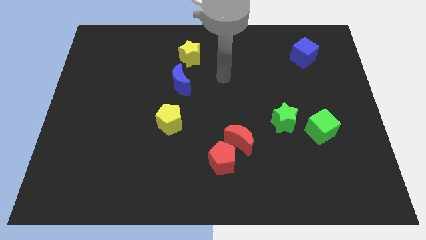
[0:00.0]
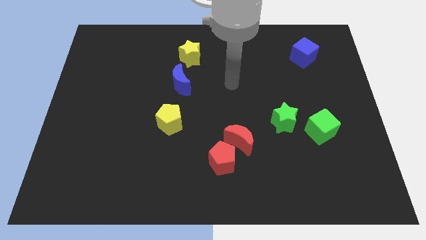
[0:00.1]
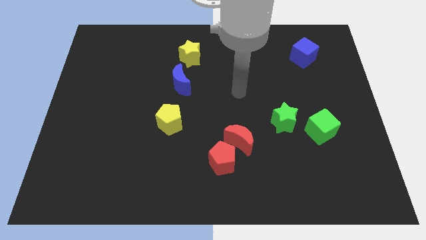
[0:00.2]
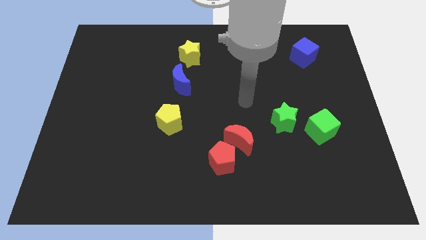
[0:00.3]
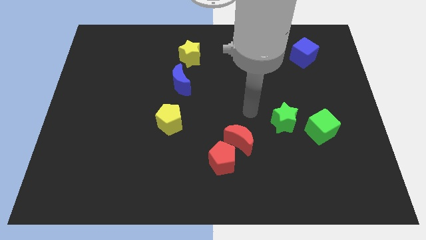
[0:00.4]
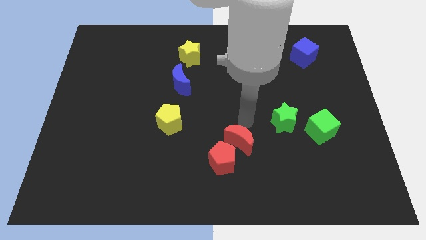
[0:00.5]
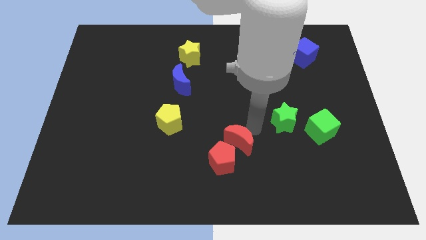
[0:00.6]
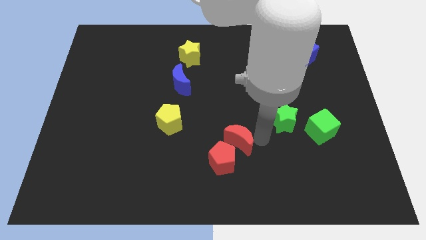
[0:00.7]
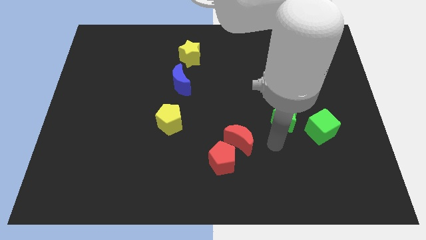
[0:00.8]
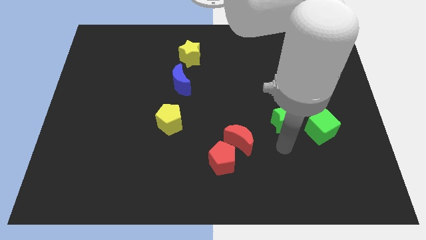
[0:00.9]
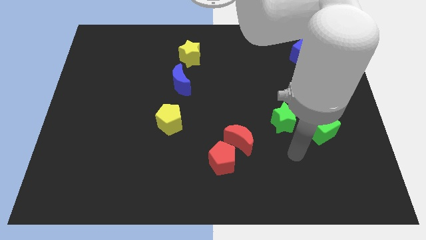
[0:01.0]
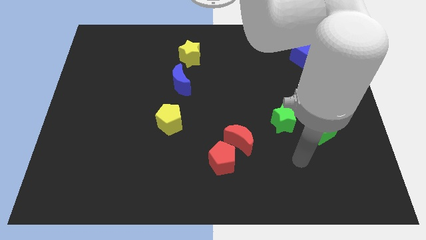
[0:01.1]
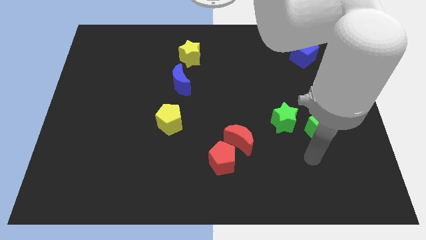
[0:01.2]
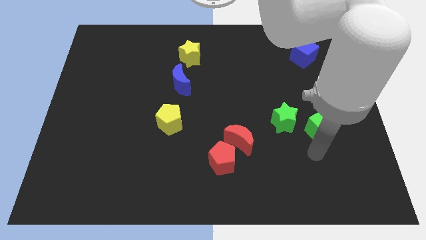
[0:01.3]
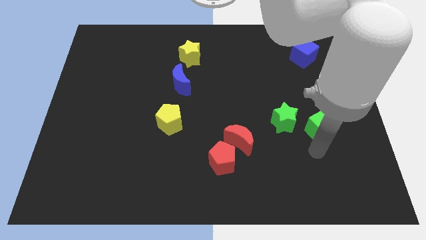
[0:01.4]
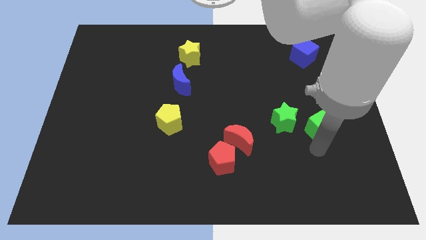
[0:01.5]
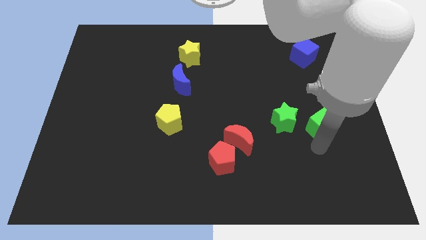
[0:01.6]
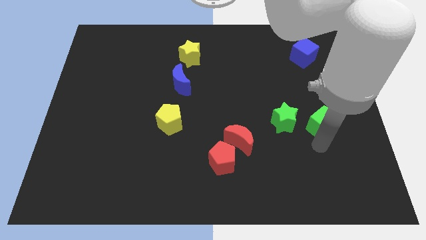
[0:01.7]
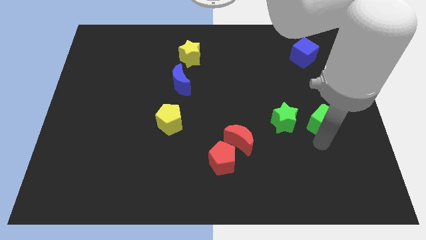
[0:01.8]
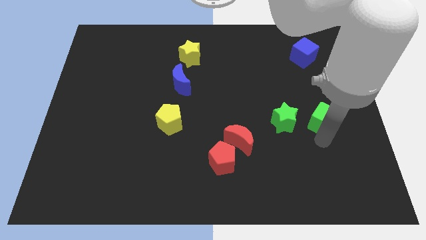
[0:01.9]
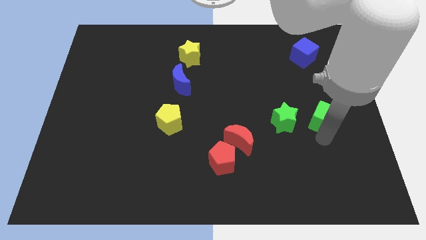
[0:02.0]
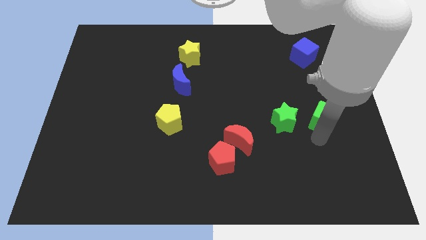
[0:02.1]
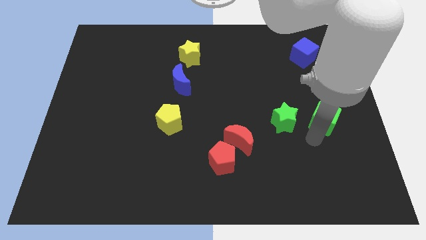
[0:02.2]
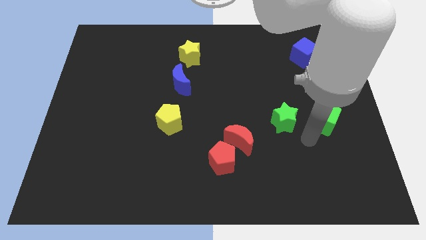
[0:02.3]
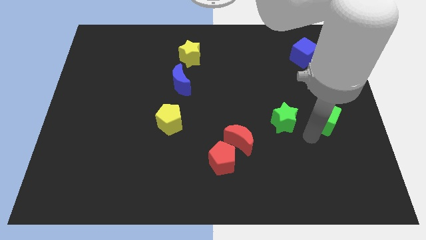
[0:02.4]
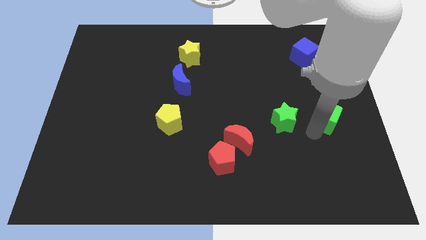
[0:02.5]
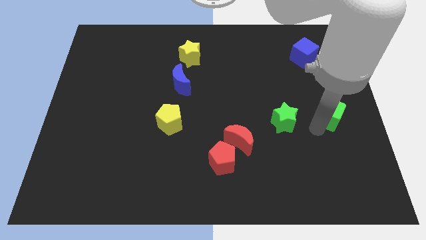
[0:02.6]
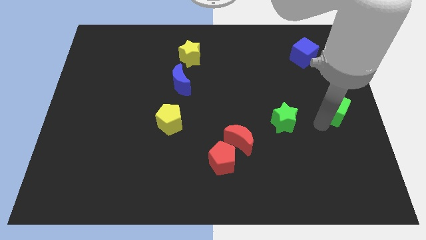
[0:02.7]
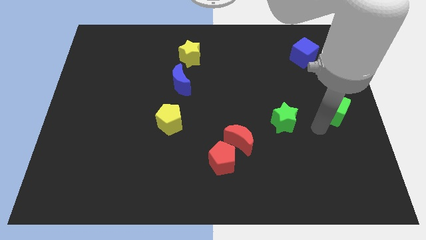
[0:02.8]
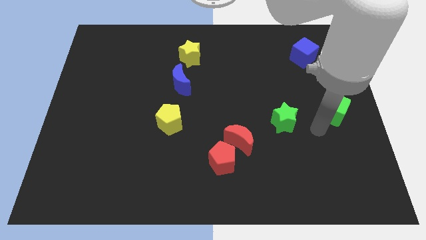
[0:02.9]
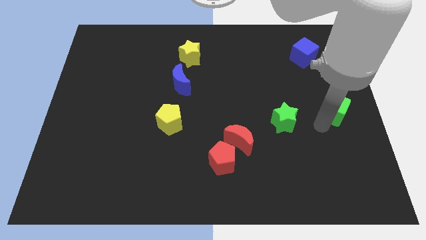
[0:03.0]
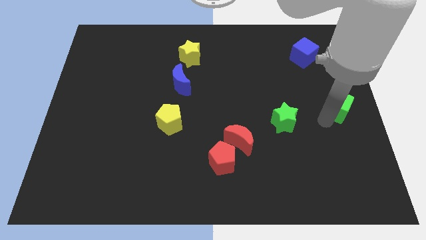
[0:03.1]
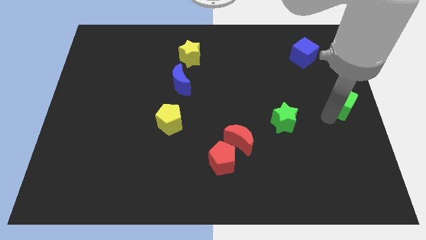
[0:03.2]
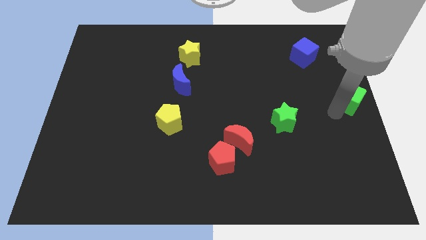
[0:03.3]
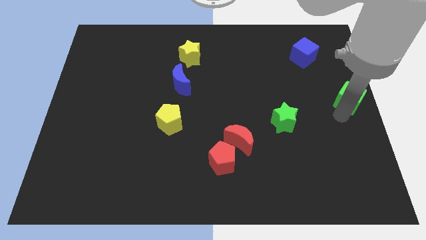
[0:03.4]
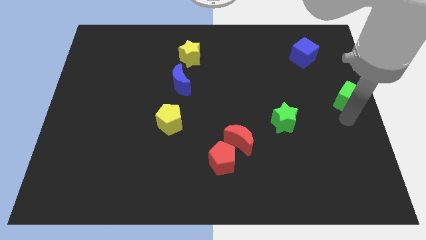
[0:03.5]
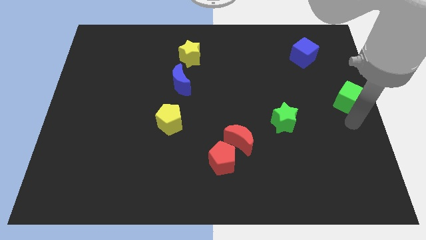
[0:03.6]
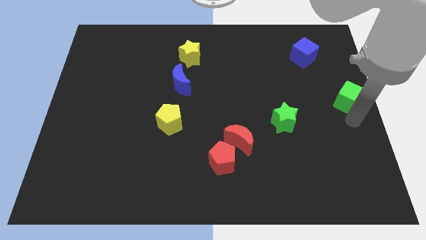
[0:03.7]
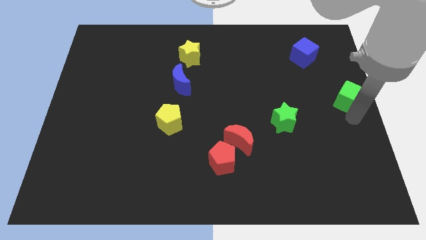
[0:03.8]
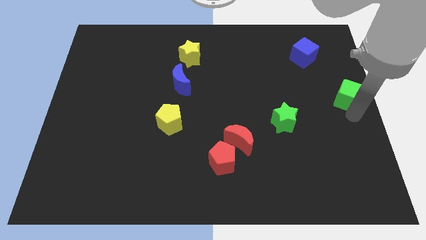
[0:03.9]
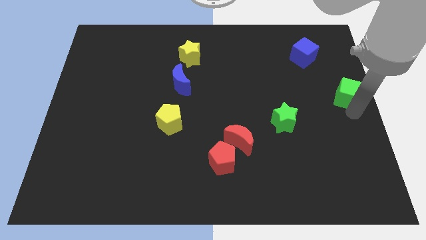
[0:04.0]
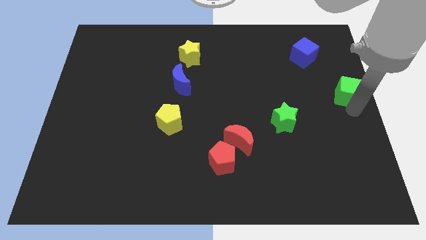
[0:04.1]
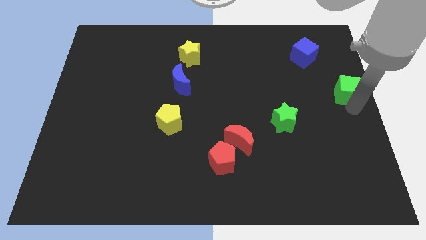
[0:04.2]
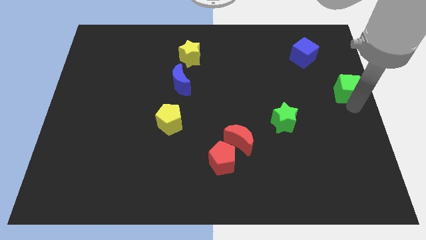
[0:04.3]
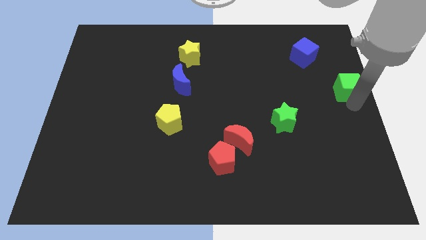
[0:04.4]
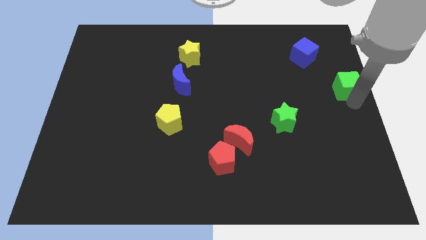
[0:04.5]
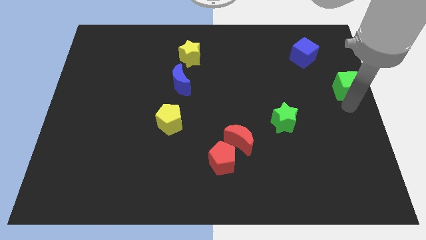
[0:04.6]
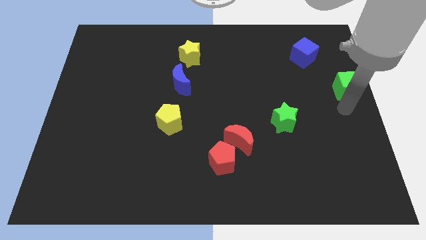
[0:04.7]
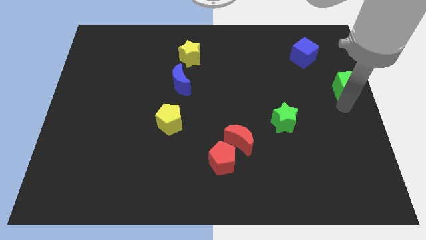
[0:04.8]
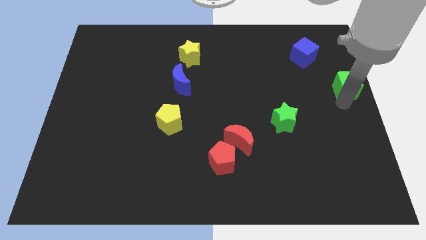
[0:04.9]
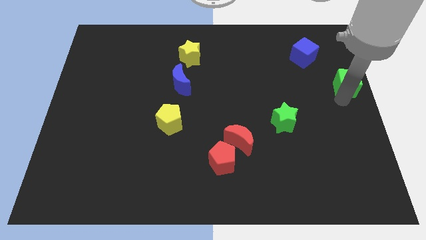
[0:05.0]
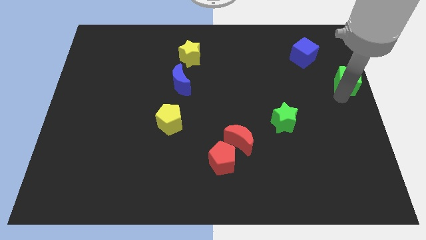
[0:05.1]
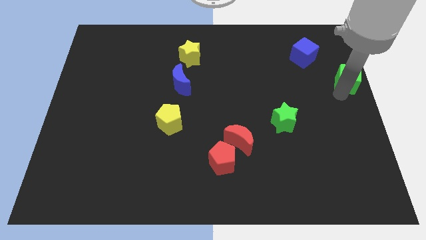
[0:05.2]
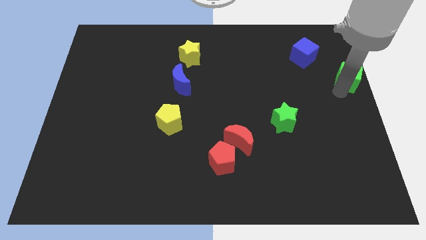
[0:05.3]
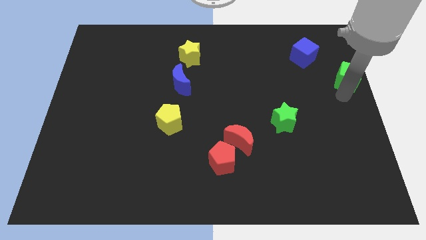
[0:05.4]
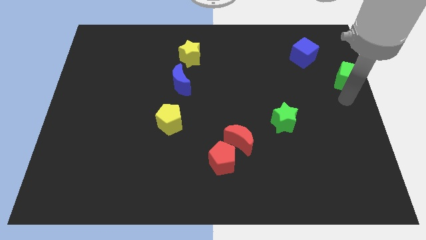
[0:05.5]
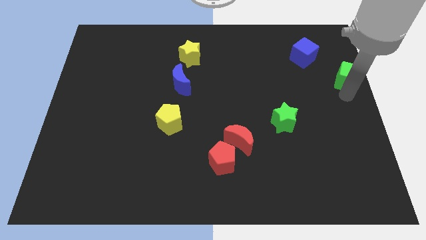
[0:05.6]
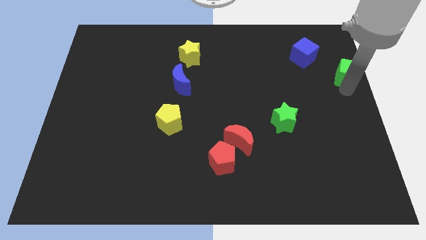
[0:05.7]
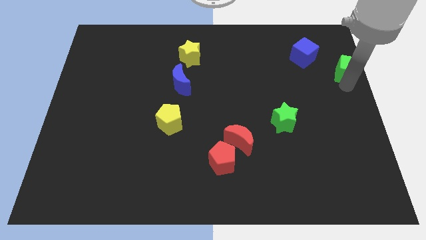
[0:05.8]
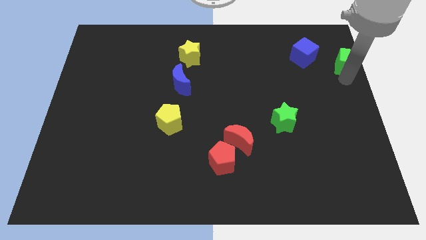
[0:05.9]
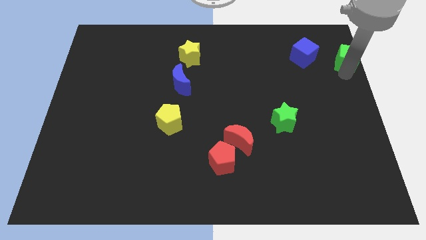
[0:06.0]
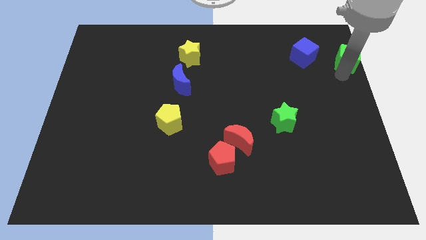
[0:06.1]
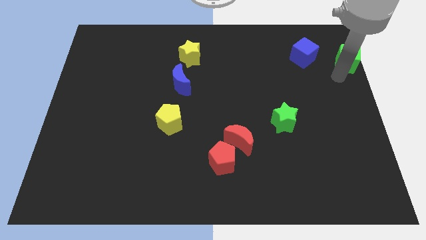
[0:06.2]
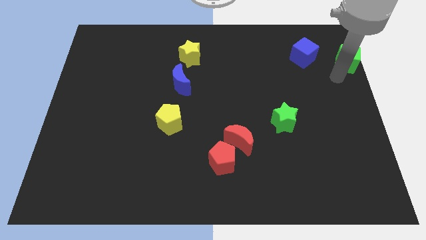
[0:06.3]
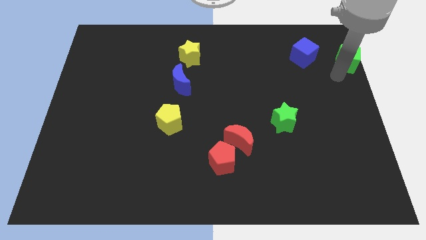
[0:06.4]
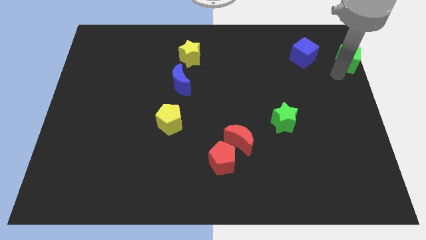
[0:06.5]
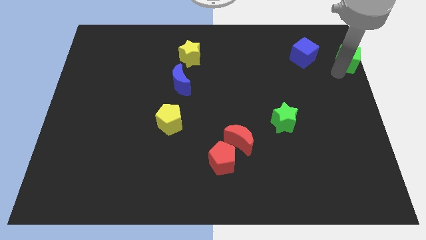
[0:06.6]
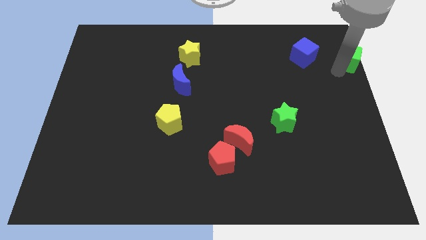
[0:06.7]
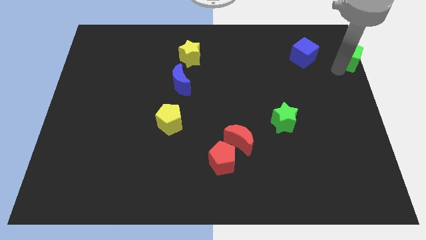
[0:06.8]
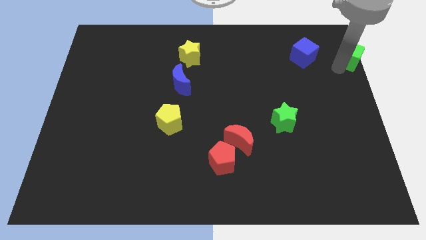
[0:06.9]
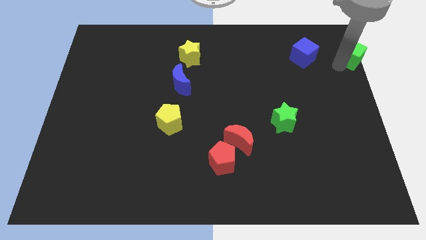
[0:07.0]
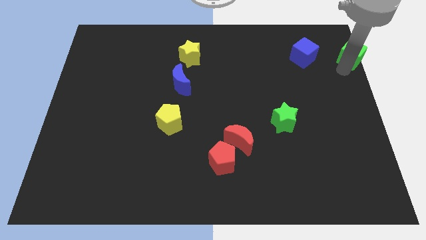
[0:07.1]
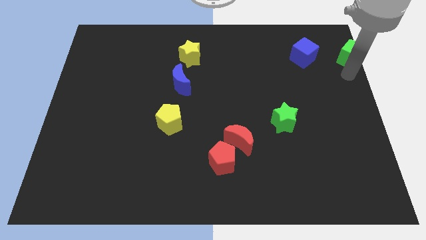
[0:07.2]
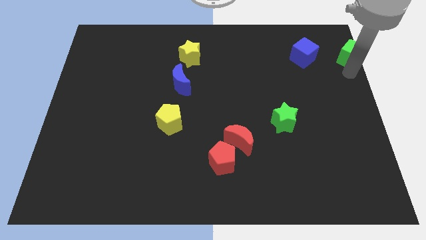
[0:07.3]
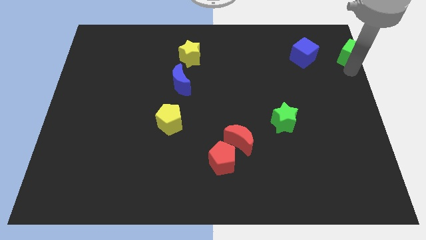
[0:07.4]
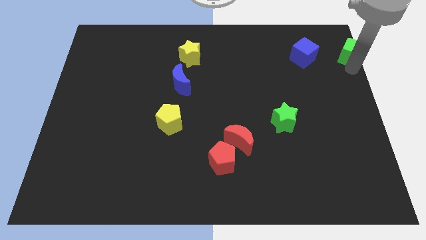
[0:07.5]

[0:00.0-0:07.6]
move the green cube to the top right of the board
